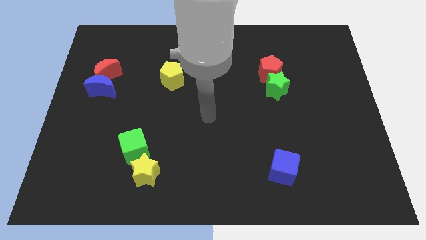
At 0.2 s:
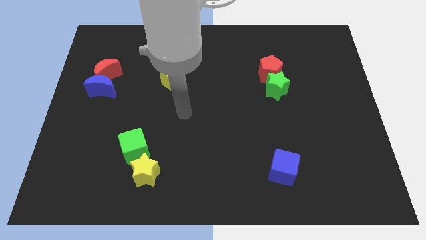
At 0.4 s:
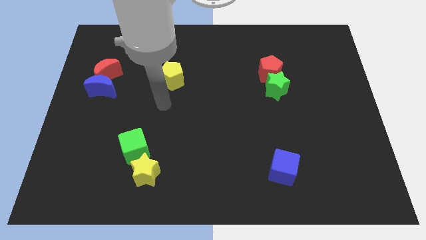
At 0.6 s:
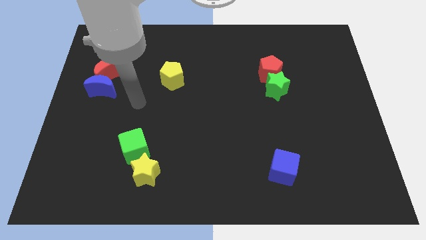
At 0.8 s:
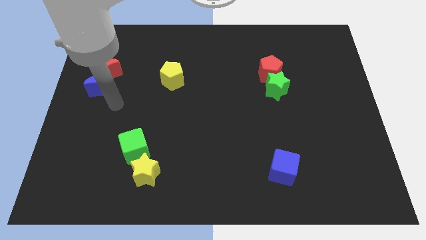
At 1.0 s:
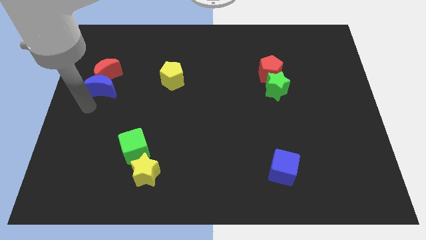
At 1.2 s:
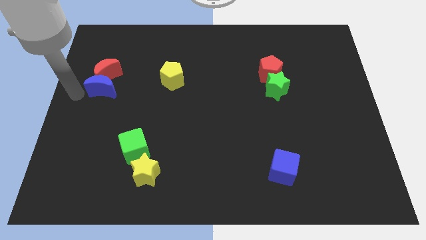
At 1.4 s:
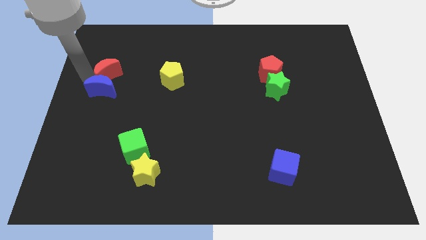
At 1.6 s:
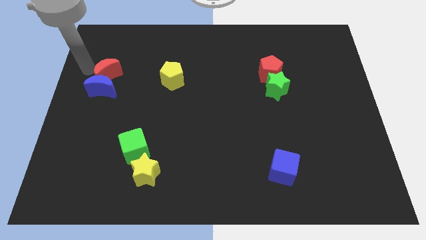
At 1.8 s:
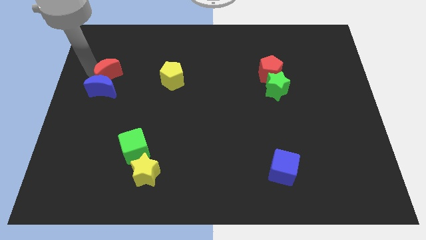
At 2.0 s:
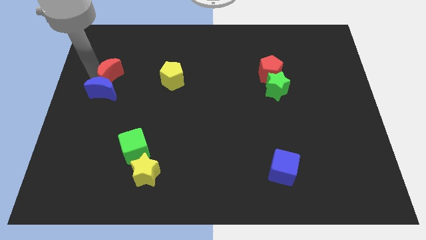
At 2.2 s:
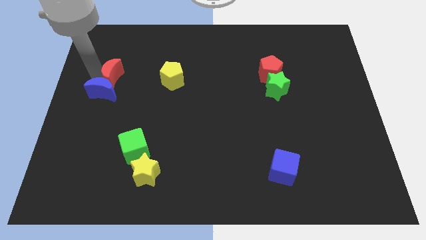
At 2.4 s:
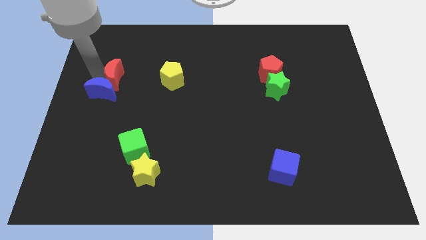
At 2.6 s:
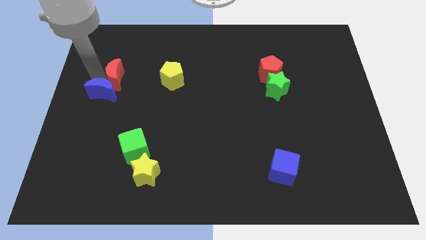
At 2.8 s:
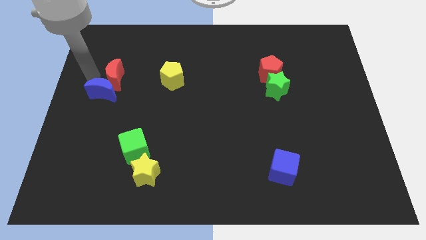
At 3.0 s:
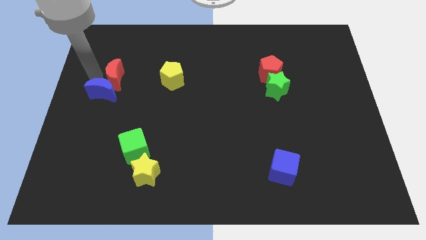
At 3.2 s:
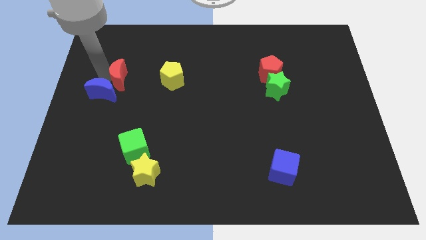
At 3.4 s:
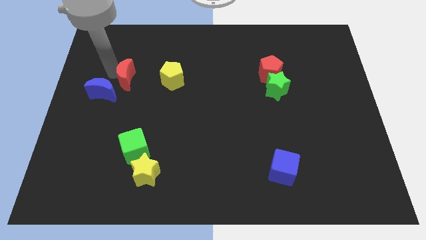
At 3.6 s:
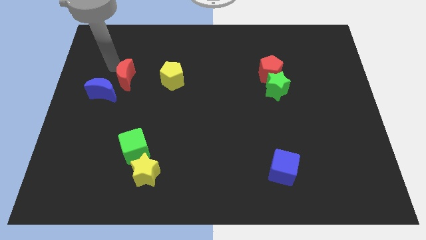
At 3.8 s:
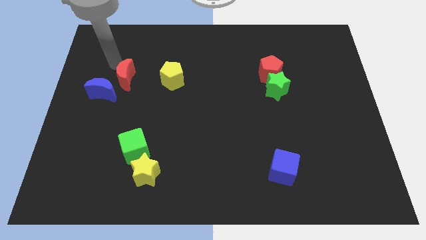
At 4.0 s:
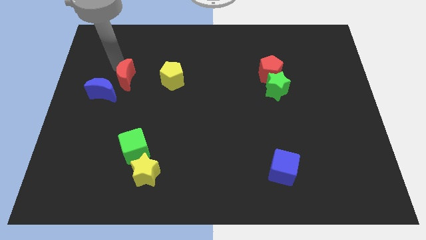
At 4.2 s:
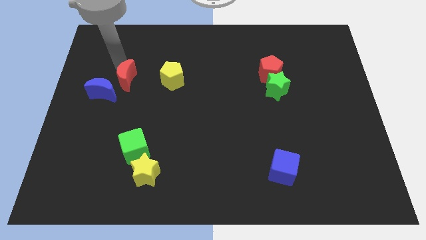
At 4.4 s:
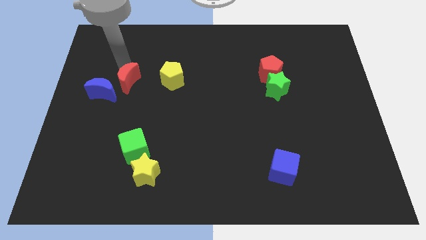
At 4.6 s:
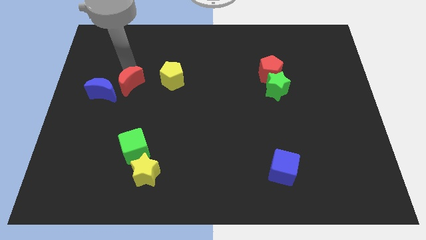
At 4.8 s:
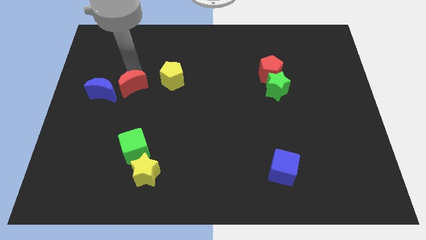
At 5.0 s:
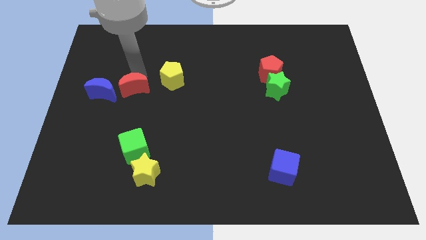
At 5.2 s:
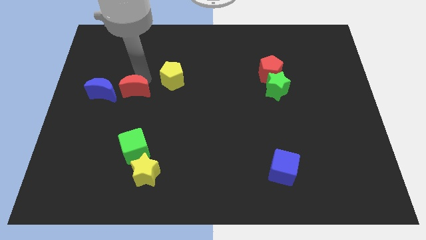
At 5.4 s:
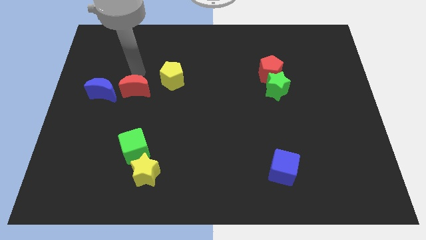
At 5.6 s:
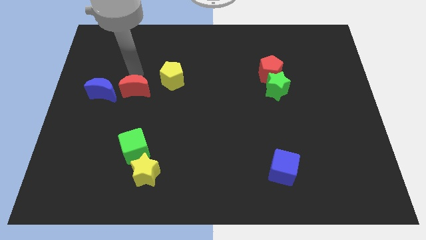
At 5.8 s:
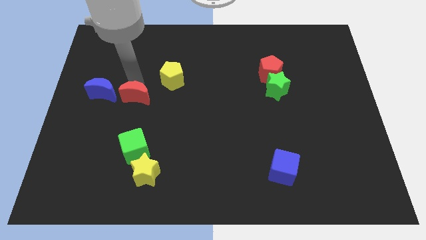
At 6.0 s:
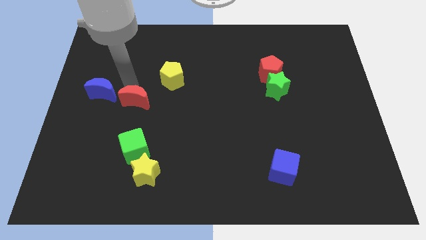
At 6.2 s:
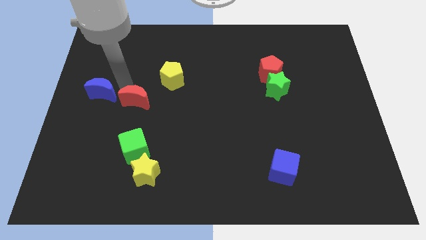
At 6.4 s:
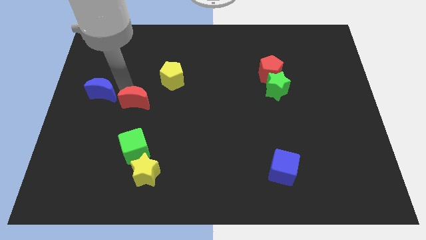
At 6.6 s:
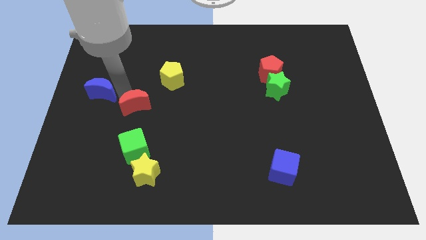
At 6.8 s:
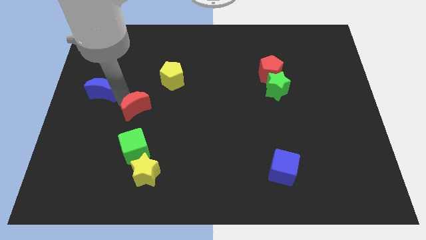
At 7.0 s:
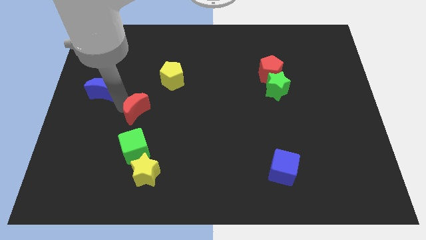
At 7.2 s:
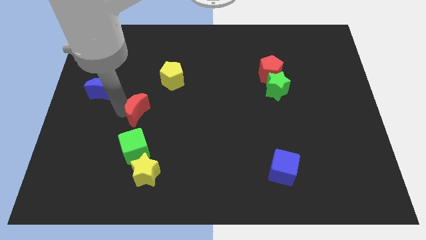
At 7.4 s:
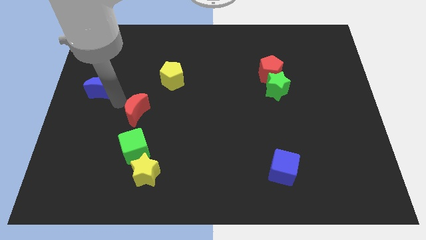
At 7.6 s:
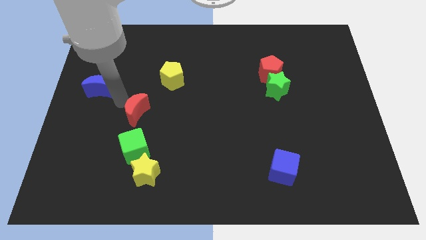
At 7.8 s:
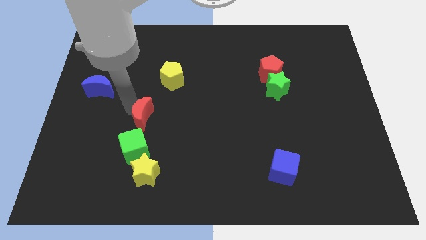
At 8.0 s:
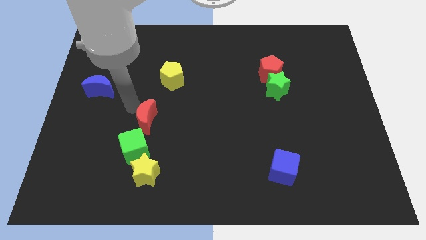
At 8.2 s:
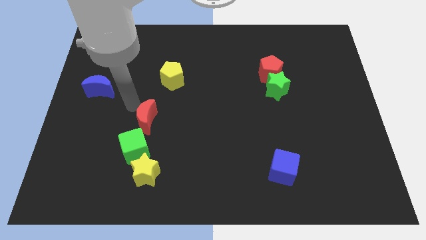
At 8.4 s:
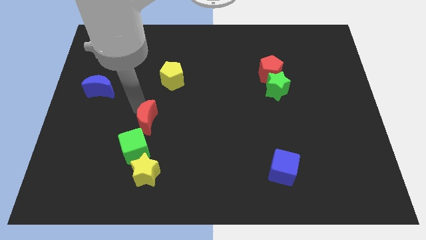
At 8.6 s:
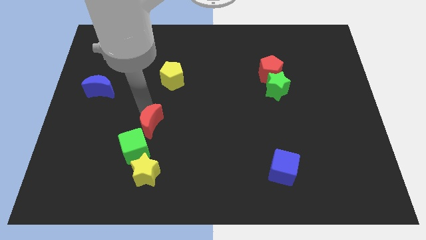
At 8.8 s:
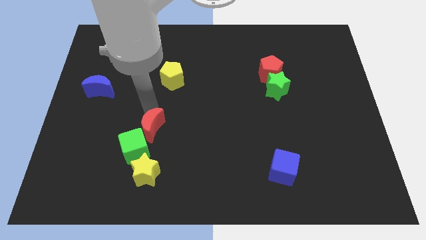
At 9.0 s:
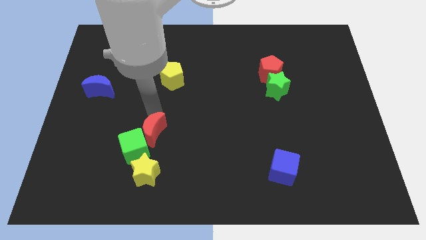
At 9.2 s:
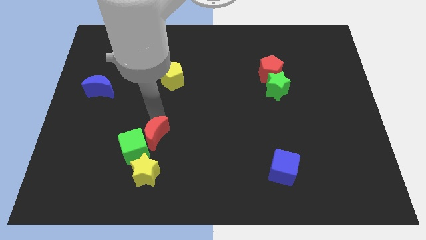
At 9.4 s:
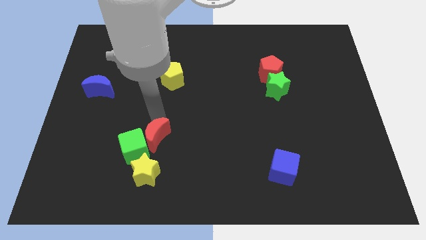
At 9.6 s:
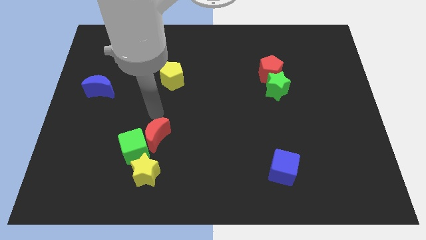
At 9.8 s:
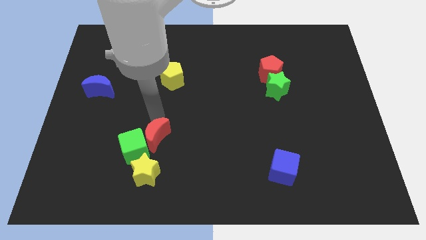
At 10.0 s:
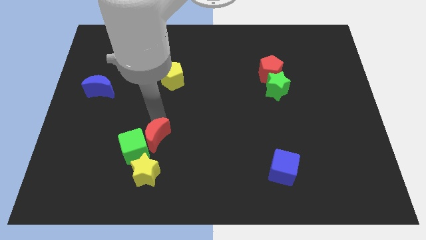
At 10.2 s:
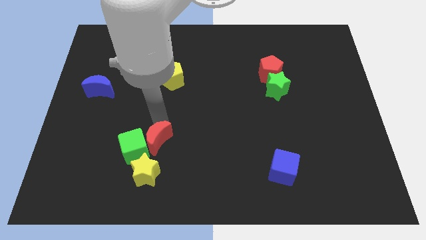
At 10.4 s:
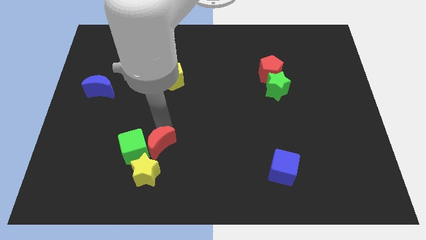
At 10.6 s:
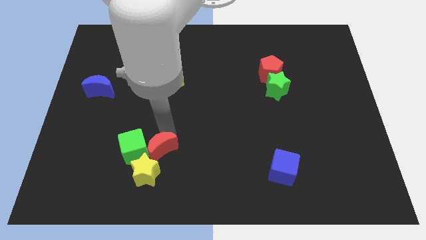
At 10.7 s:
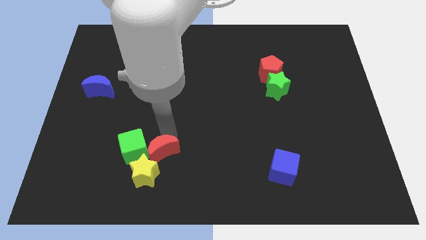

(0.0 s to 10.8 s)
put the red moon next to the yellow star

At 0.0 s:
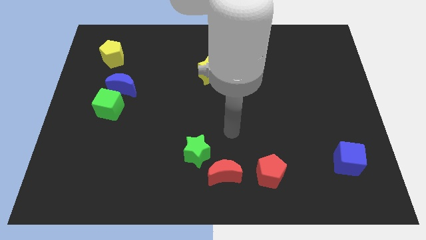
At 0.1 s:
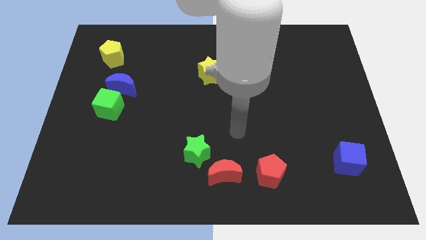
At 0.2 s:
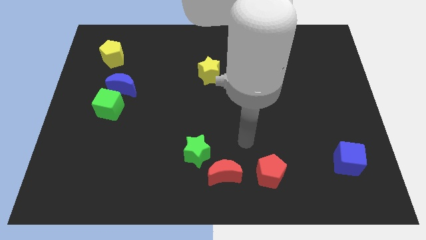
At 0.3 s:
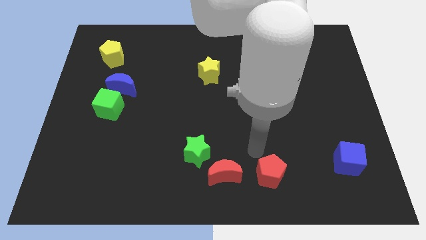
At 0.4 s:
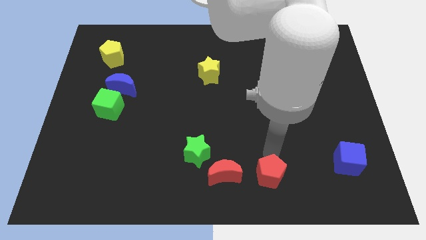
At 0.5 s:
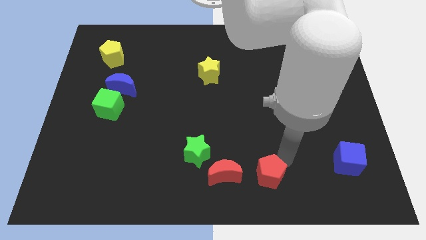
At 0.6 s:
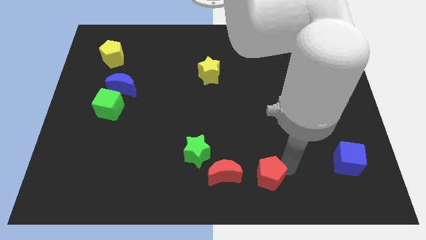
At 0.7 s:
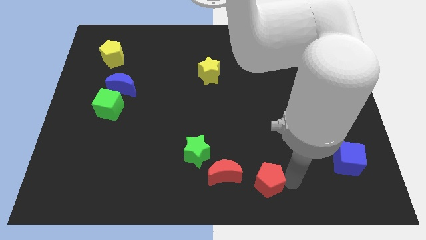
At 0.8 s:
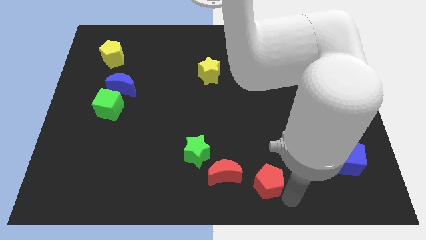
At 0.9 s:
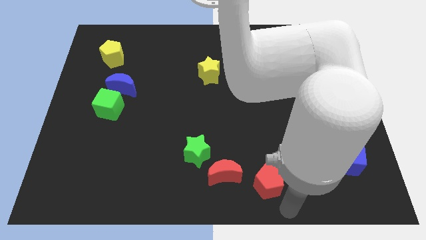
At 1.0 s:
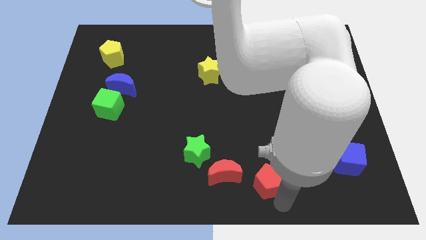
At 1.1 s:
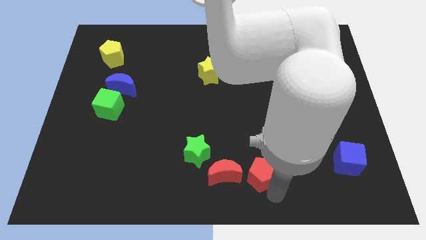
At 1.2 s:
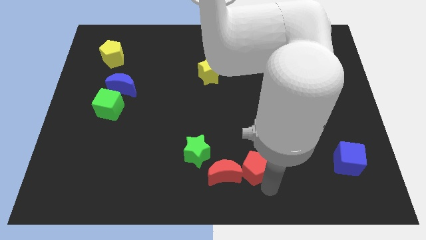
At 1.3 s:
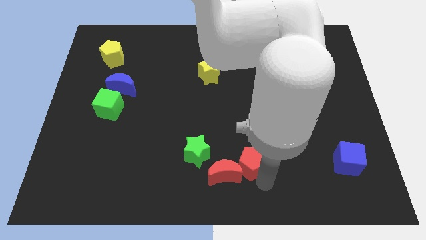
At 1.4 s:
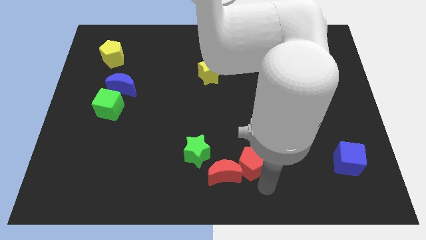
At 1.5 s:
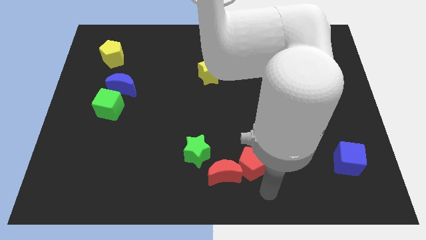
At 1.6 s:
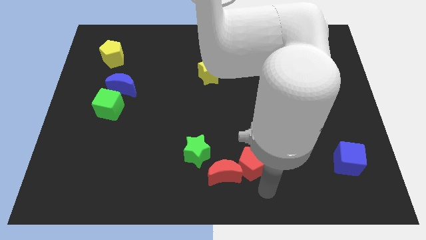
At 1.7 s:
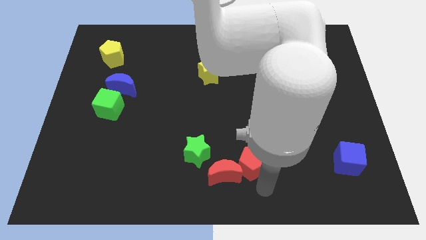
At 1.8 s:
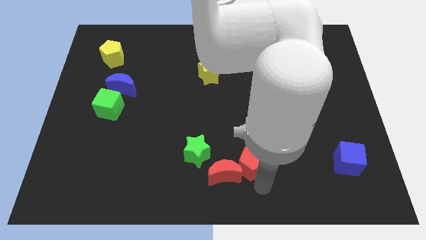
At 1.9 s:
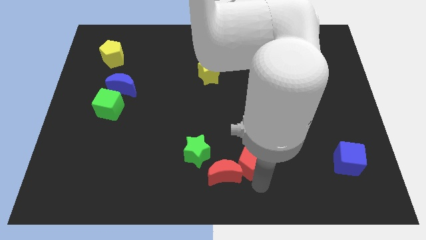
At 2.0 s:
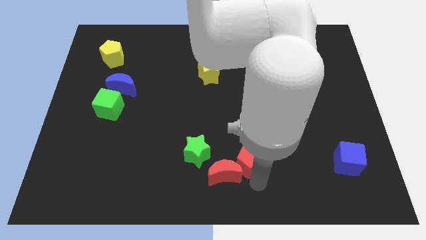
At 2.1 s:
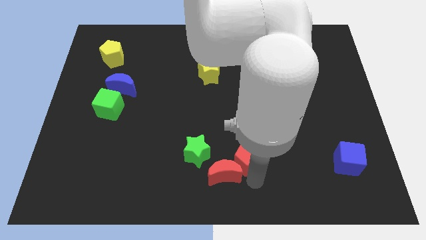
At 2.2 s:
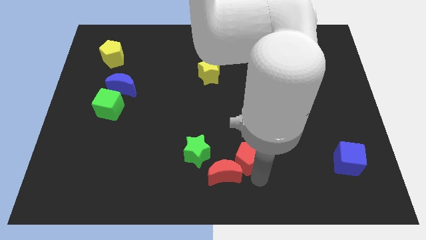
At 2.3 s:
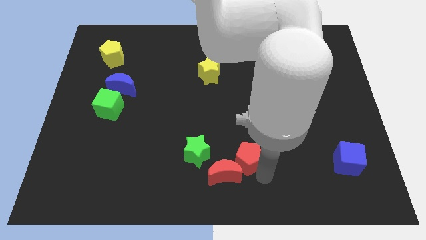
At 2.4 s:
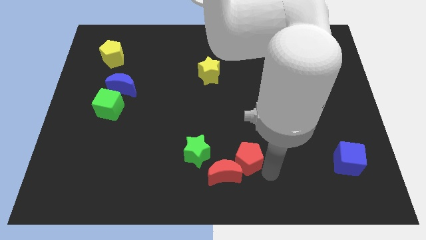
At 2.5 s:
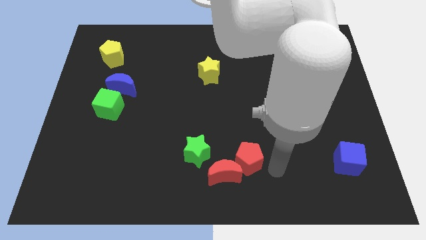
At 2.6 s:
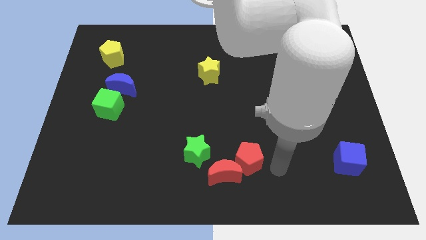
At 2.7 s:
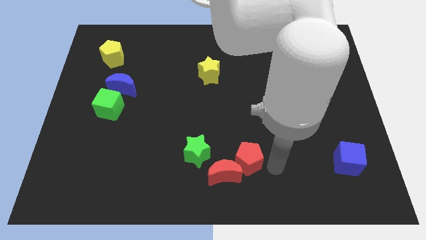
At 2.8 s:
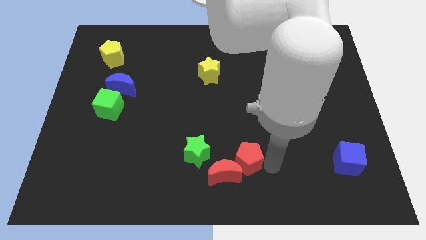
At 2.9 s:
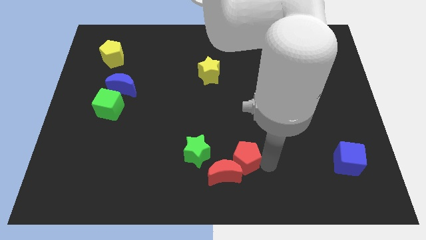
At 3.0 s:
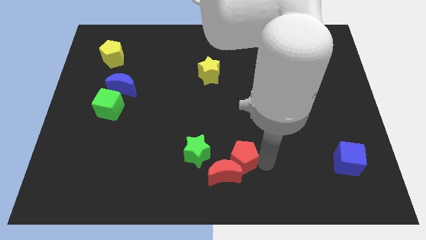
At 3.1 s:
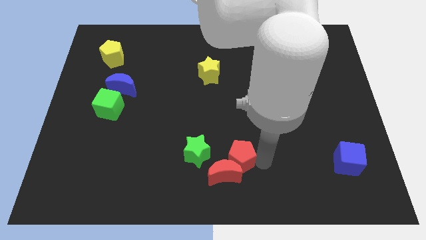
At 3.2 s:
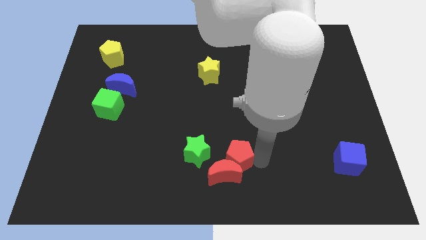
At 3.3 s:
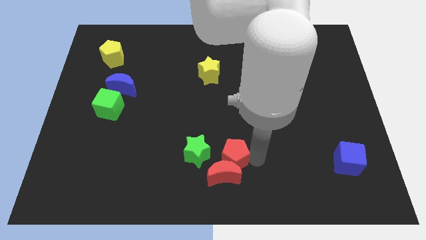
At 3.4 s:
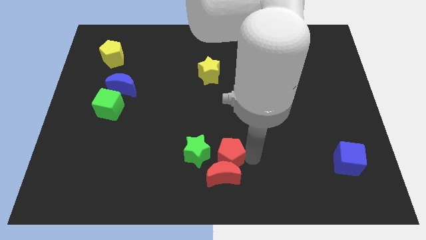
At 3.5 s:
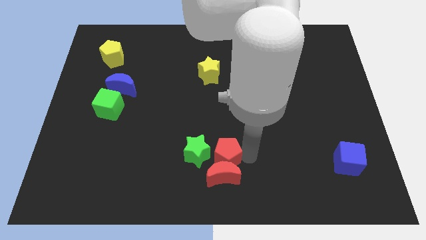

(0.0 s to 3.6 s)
push the red pentagon to the green star
